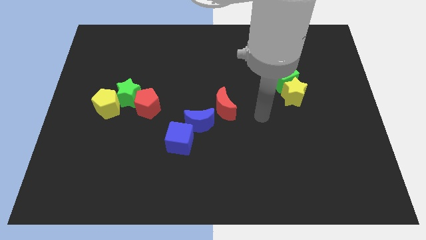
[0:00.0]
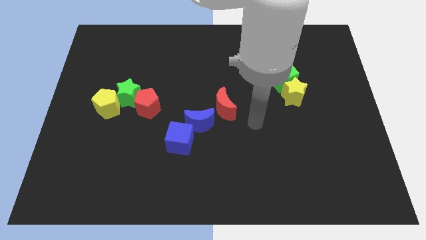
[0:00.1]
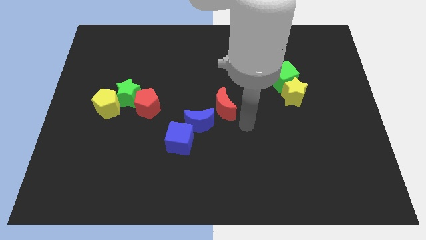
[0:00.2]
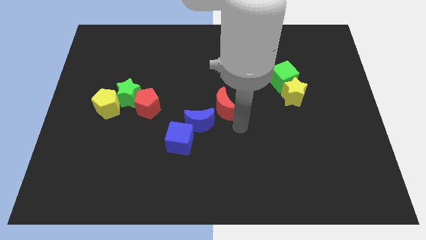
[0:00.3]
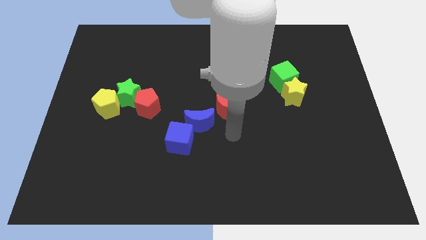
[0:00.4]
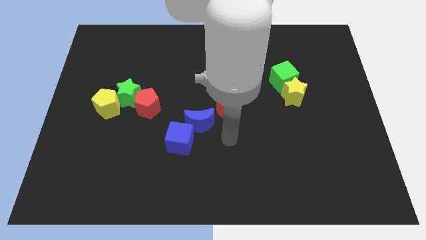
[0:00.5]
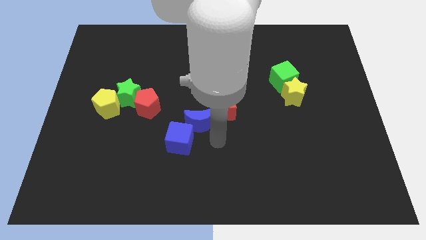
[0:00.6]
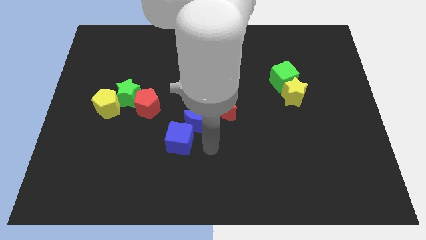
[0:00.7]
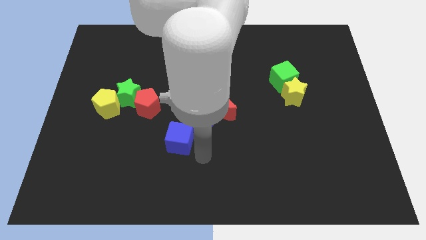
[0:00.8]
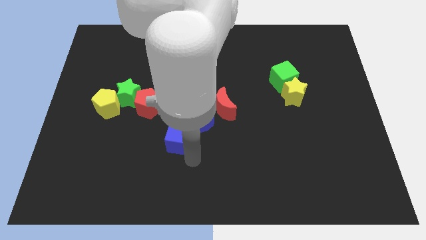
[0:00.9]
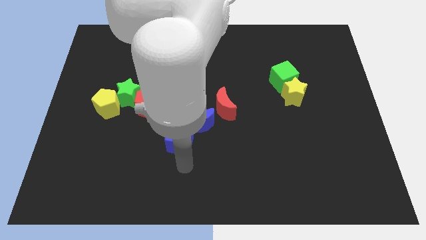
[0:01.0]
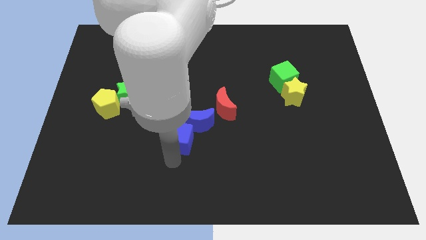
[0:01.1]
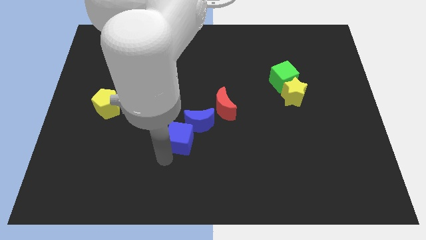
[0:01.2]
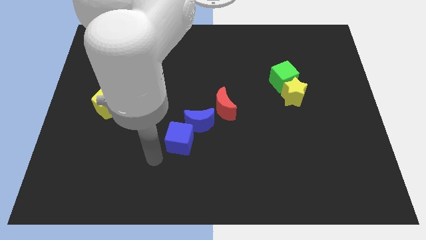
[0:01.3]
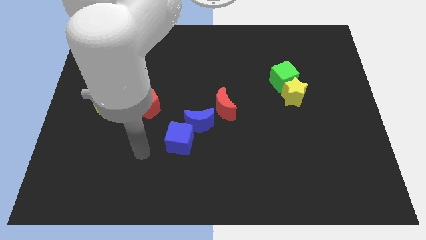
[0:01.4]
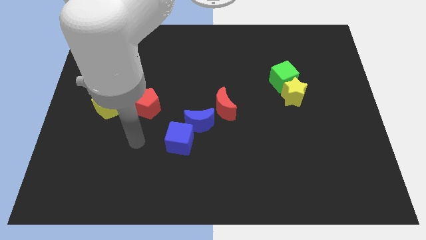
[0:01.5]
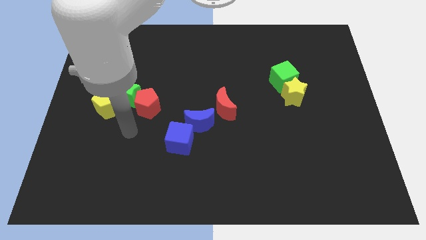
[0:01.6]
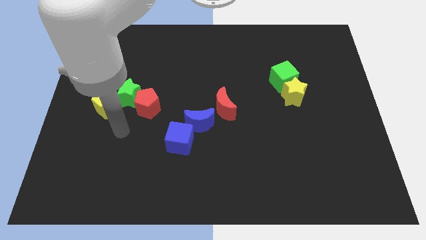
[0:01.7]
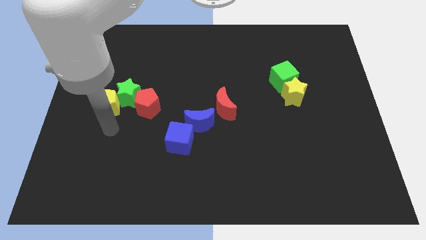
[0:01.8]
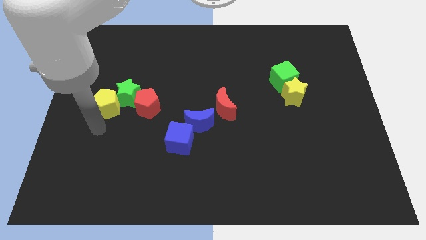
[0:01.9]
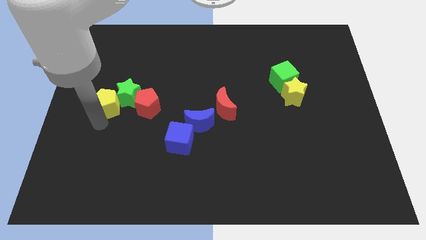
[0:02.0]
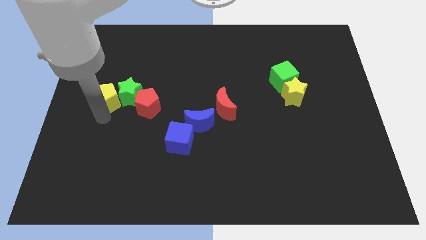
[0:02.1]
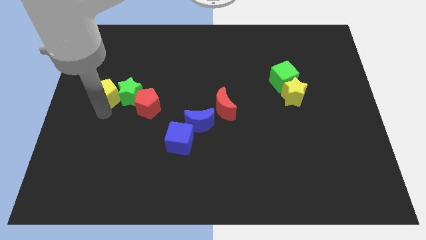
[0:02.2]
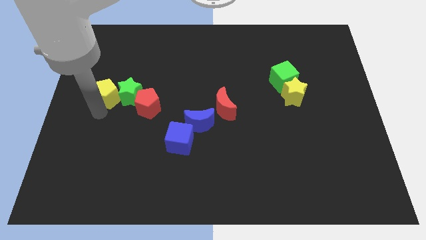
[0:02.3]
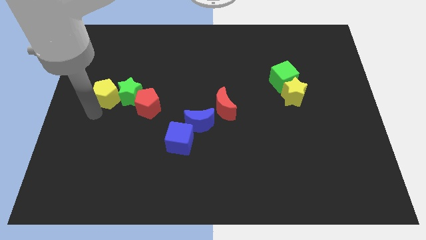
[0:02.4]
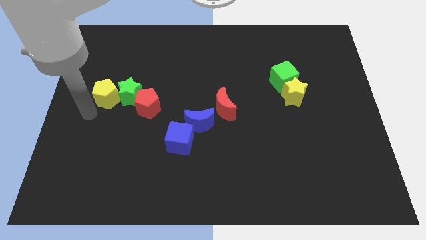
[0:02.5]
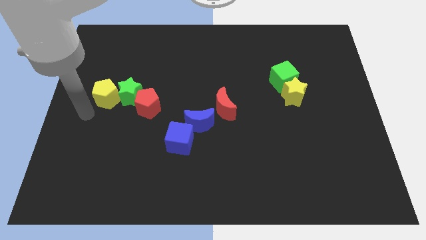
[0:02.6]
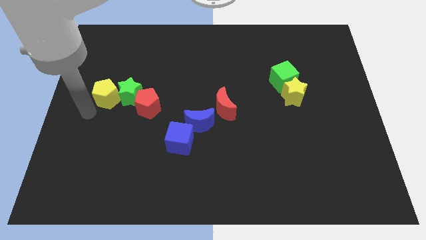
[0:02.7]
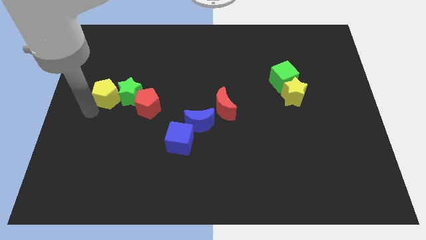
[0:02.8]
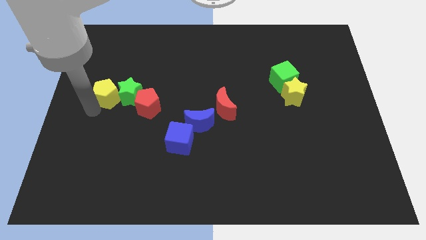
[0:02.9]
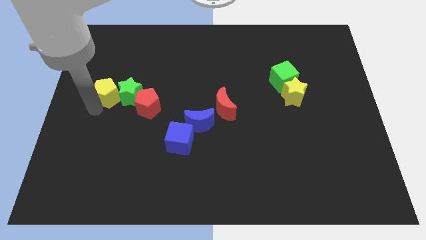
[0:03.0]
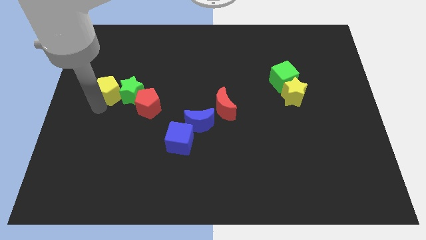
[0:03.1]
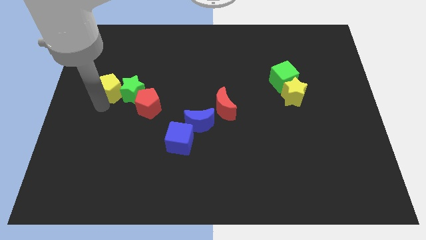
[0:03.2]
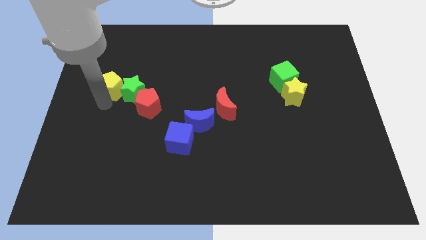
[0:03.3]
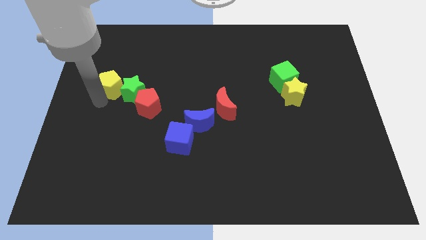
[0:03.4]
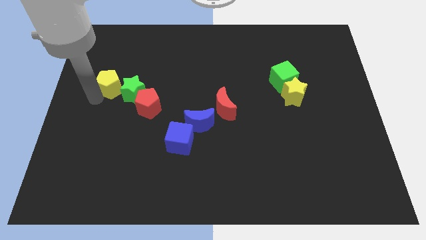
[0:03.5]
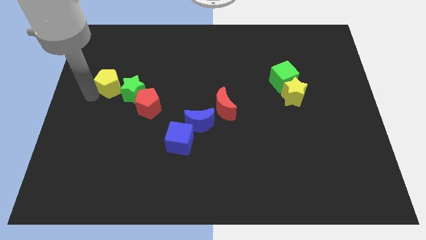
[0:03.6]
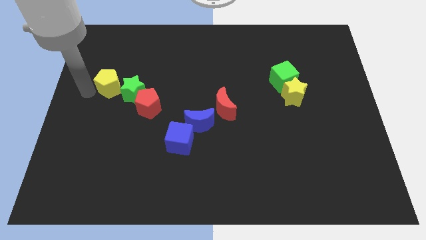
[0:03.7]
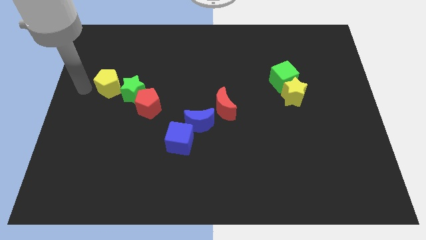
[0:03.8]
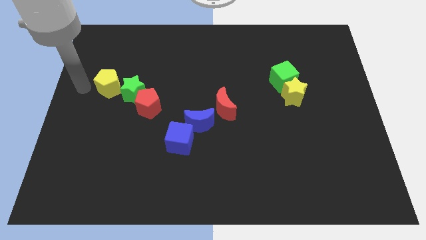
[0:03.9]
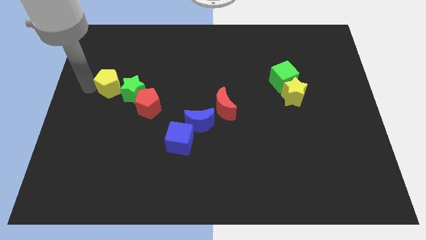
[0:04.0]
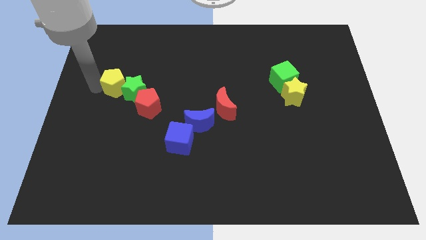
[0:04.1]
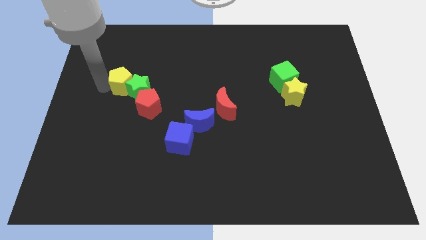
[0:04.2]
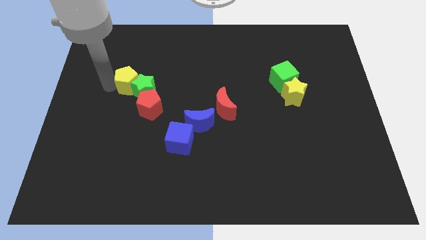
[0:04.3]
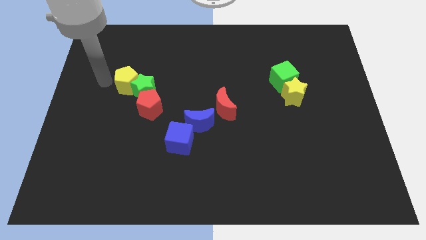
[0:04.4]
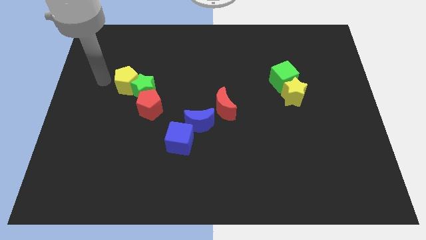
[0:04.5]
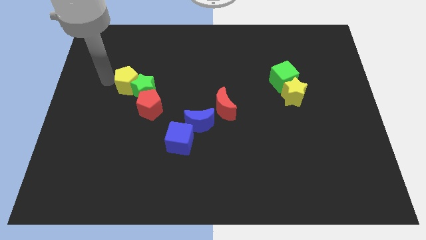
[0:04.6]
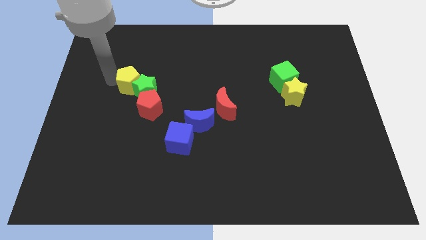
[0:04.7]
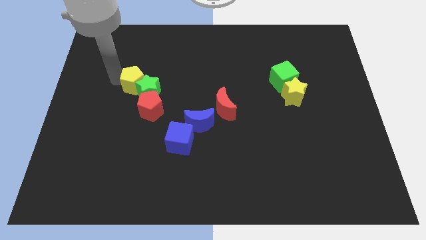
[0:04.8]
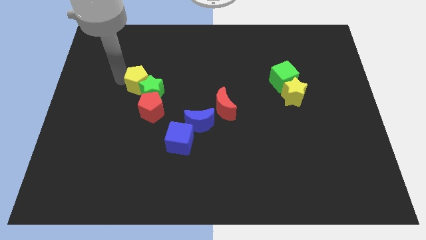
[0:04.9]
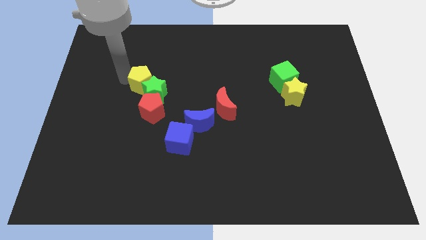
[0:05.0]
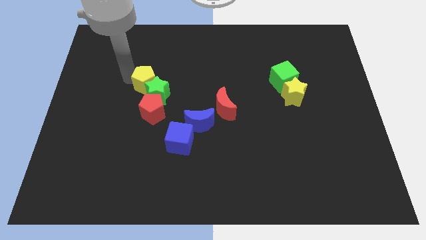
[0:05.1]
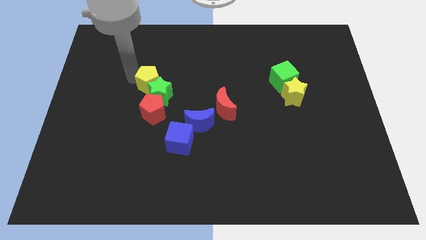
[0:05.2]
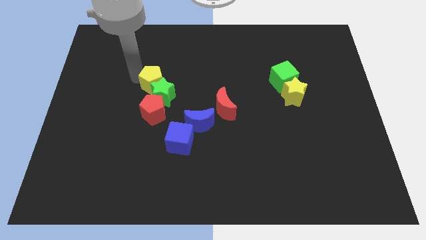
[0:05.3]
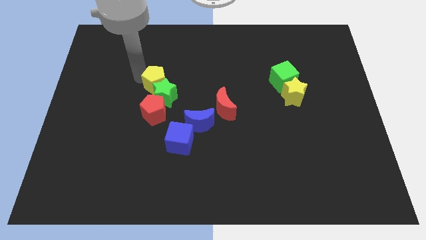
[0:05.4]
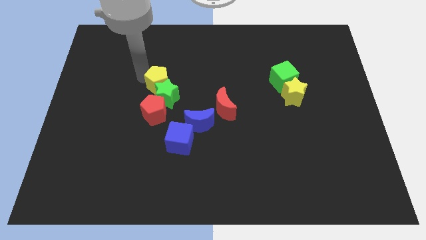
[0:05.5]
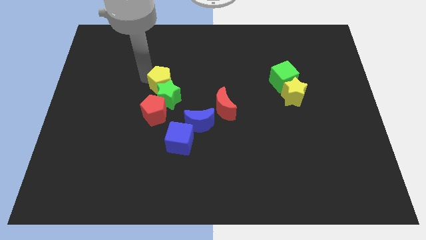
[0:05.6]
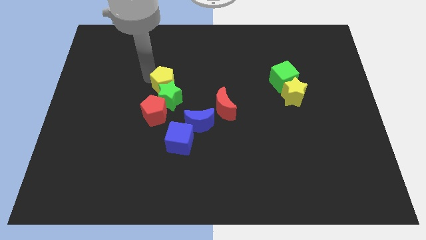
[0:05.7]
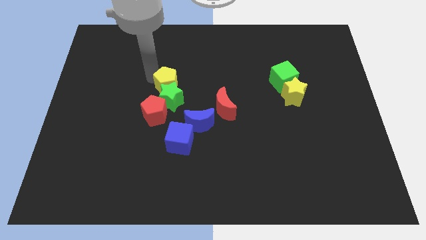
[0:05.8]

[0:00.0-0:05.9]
push the yellow pentagon to the top right side of the red pentagon

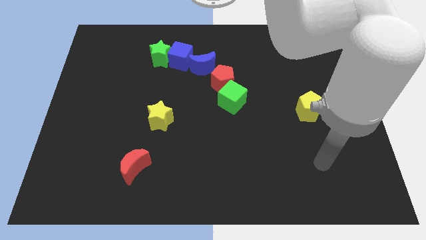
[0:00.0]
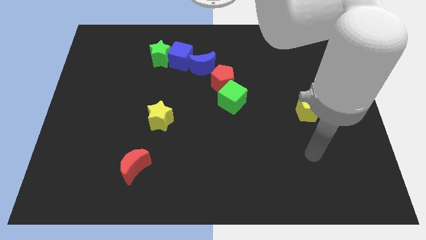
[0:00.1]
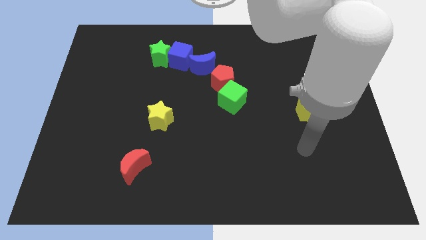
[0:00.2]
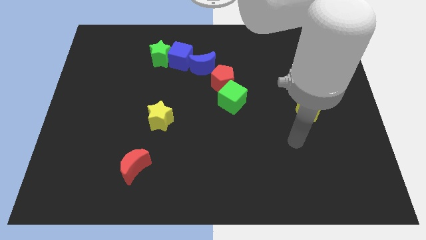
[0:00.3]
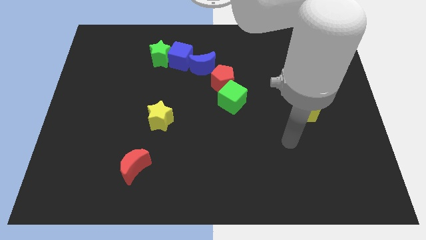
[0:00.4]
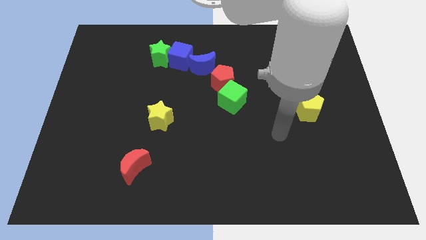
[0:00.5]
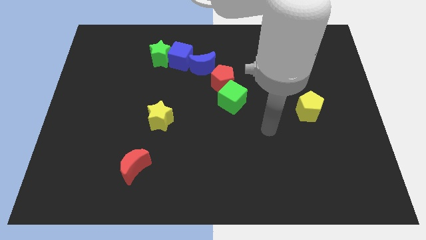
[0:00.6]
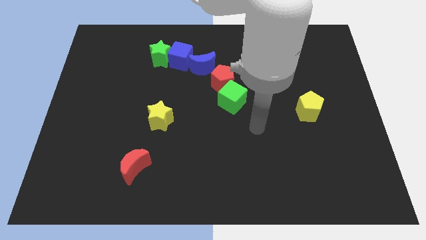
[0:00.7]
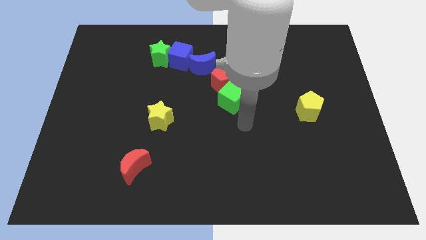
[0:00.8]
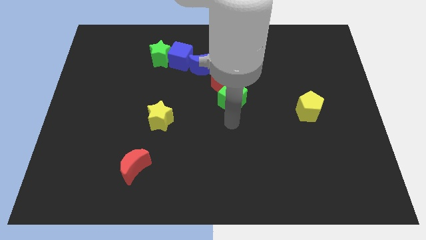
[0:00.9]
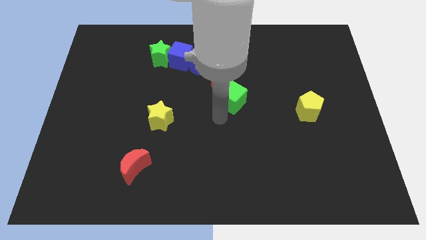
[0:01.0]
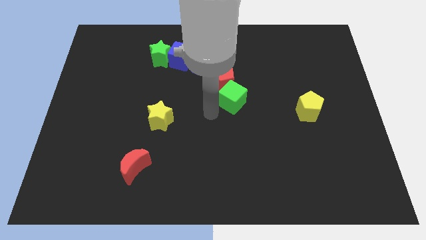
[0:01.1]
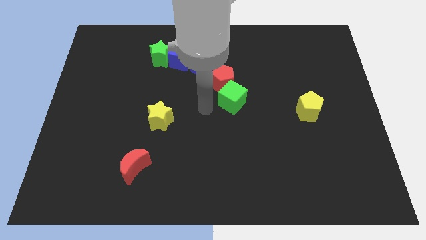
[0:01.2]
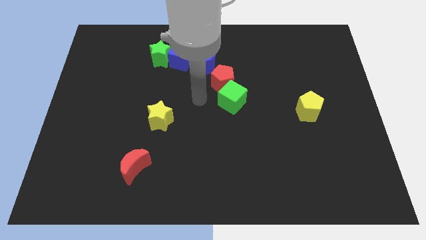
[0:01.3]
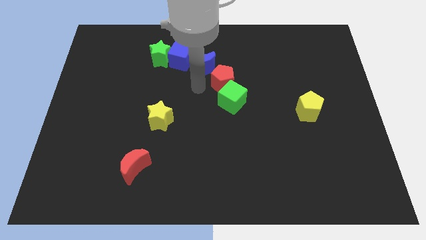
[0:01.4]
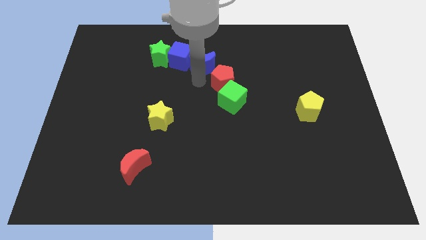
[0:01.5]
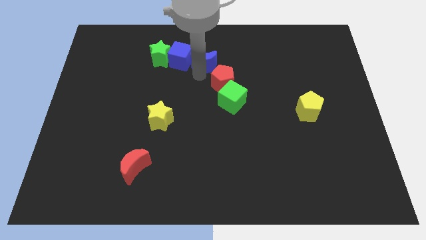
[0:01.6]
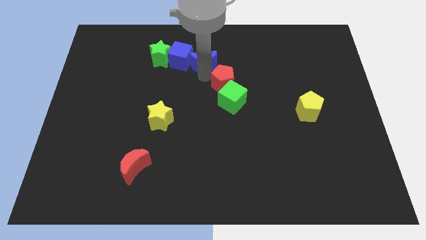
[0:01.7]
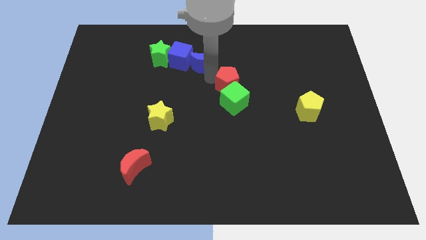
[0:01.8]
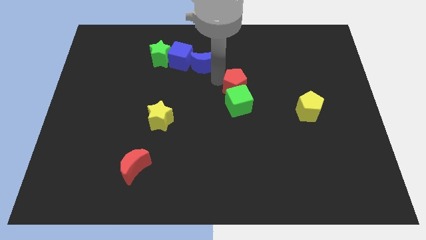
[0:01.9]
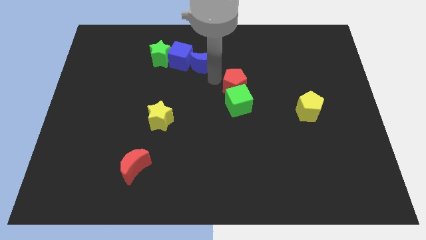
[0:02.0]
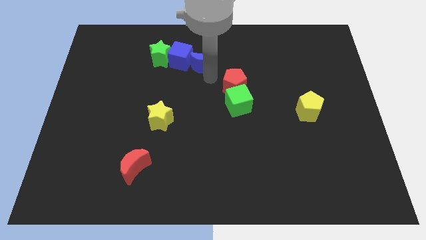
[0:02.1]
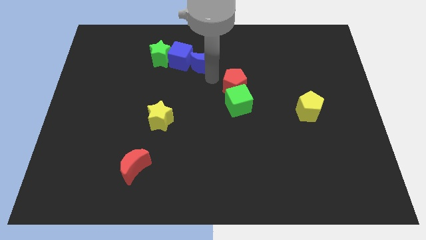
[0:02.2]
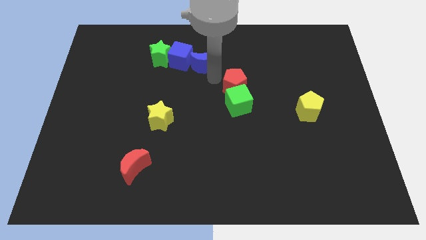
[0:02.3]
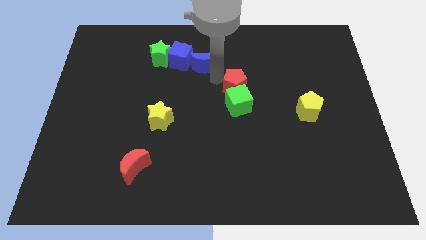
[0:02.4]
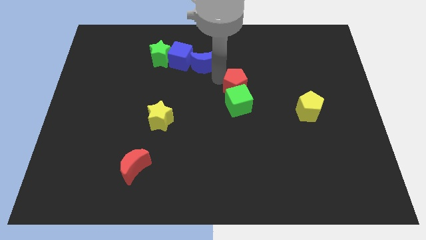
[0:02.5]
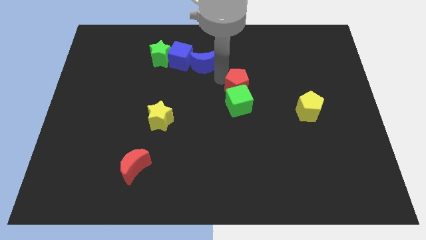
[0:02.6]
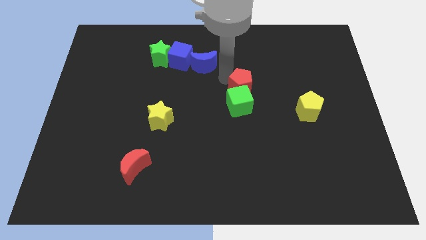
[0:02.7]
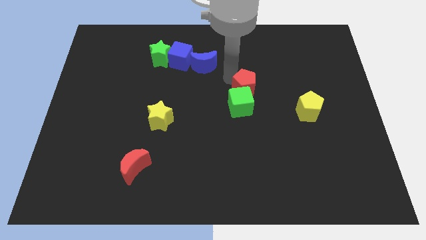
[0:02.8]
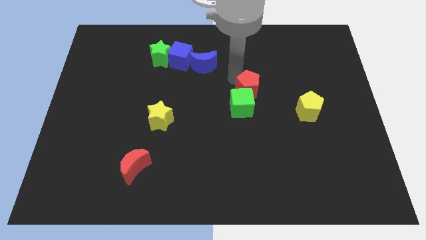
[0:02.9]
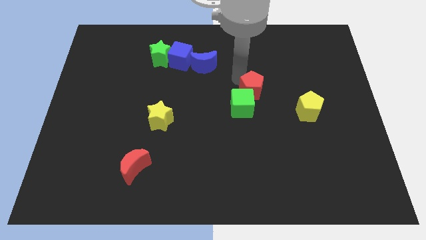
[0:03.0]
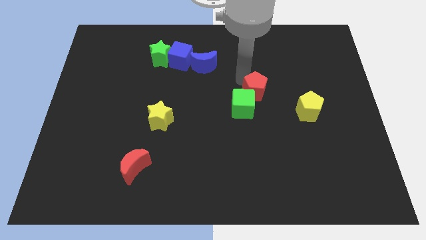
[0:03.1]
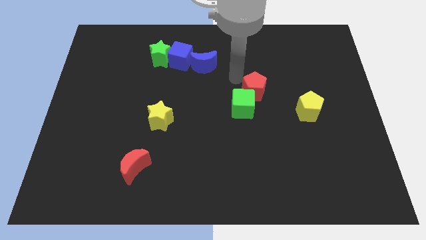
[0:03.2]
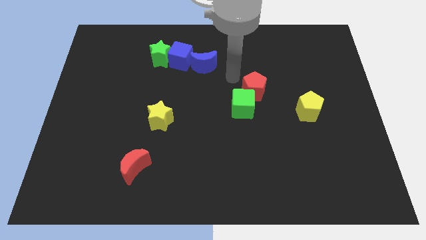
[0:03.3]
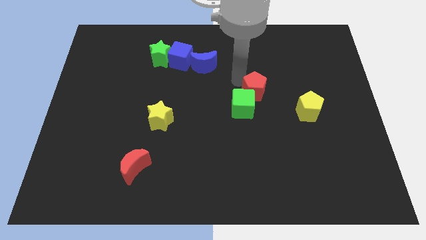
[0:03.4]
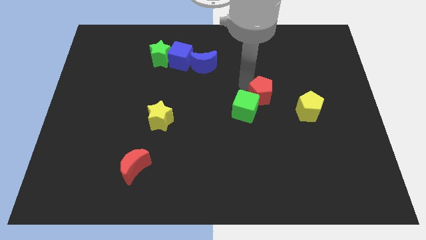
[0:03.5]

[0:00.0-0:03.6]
slide the red pentagon to the right side of the green cube
